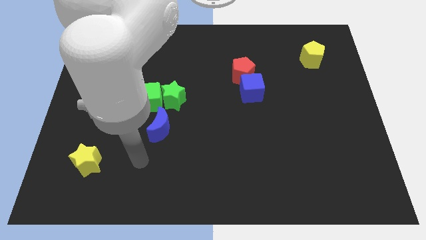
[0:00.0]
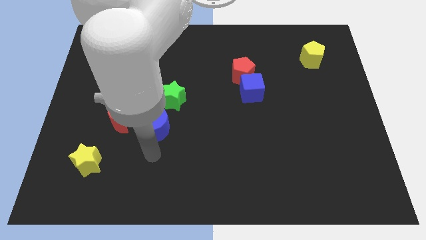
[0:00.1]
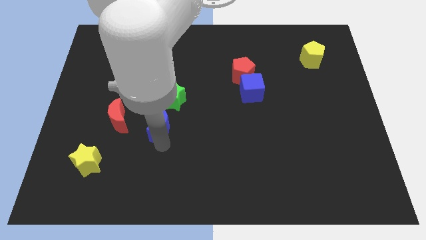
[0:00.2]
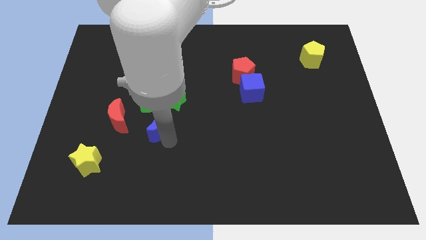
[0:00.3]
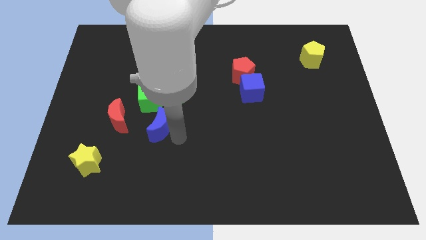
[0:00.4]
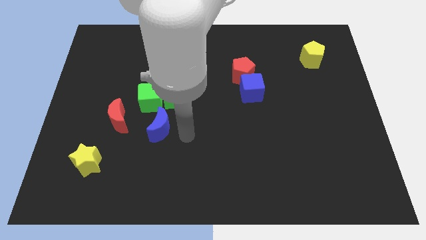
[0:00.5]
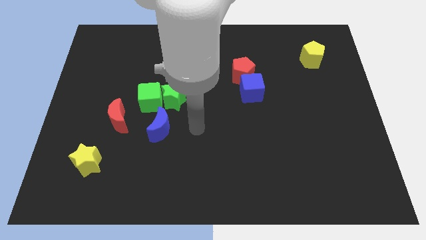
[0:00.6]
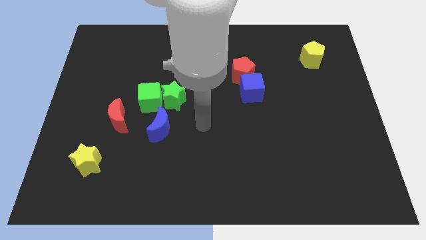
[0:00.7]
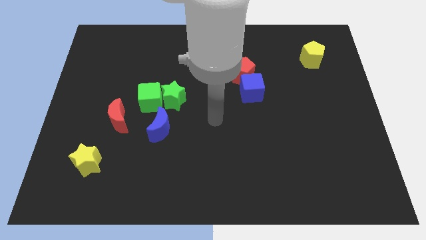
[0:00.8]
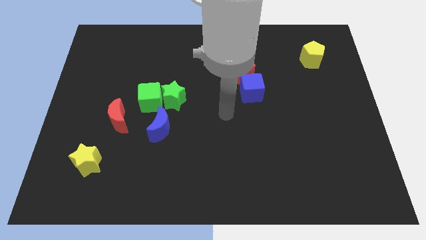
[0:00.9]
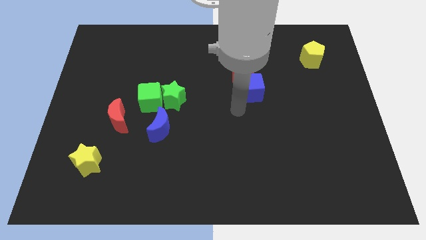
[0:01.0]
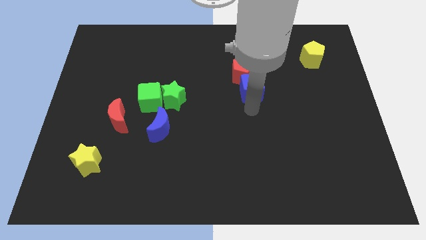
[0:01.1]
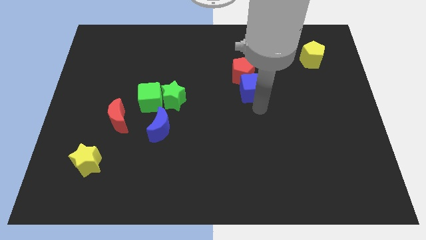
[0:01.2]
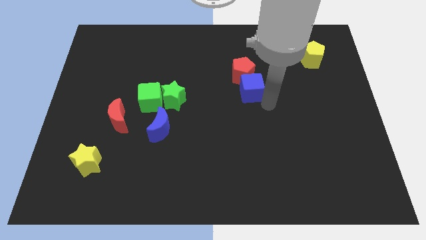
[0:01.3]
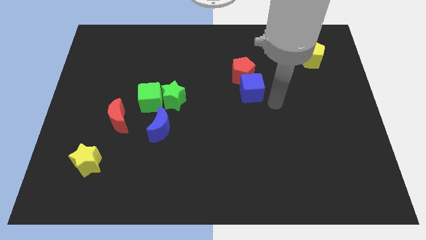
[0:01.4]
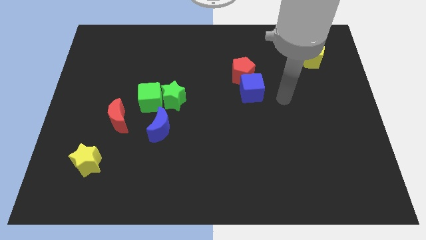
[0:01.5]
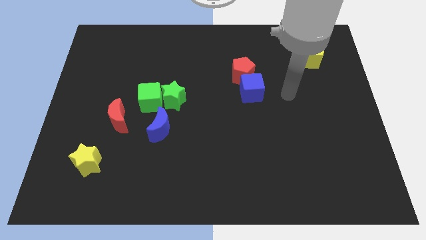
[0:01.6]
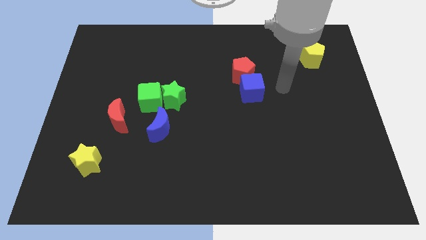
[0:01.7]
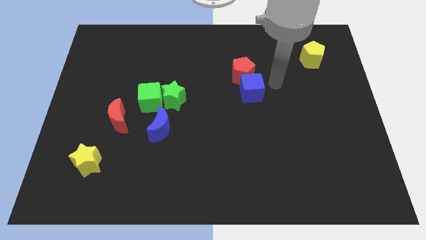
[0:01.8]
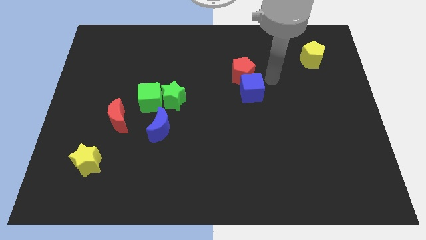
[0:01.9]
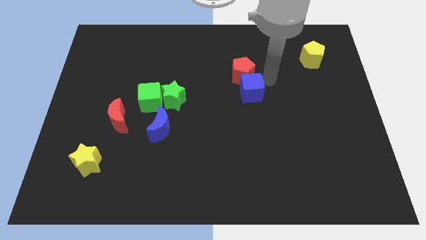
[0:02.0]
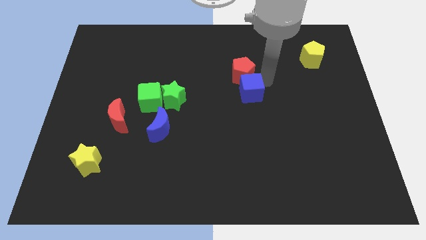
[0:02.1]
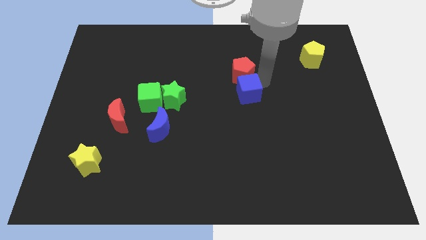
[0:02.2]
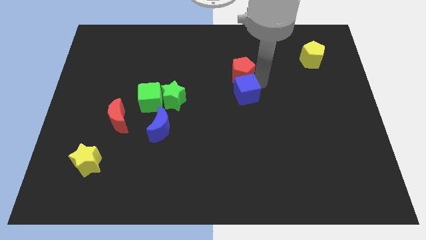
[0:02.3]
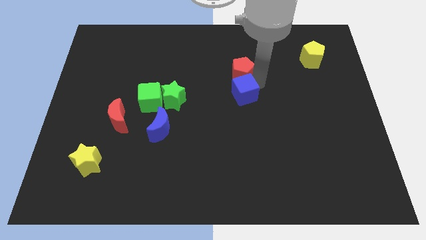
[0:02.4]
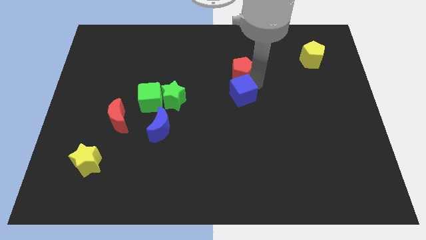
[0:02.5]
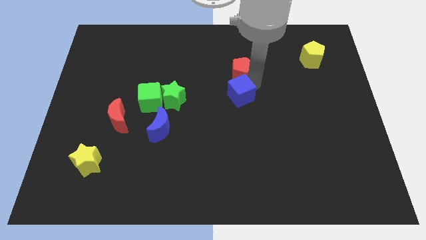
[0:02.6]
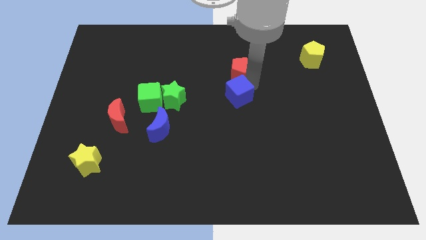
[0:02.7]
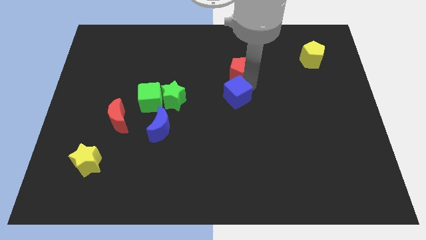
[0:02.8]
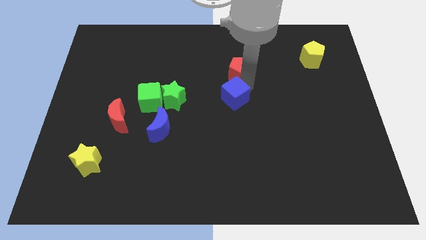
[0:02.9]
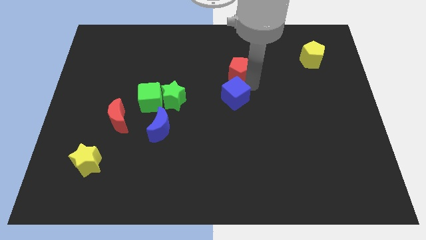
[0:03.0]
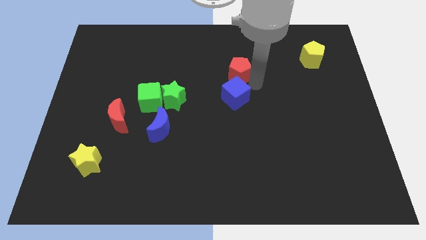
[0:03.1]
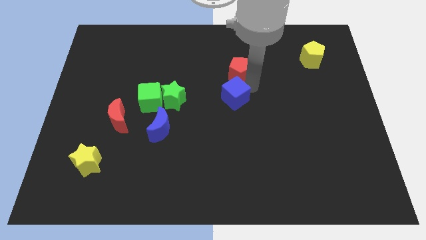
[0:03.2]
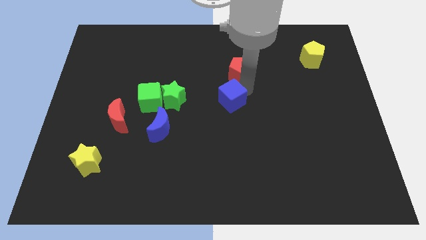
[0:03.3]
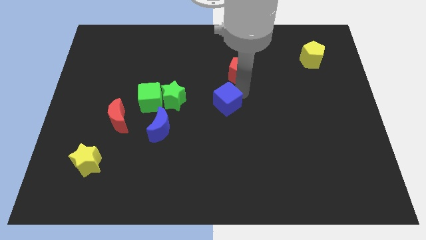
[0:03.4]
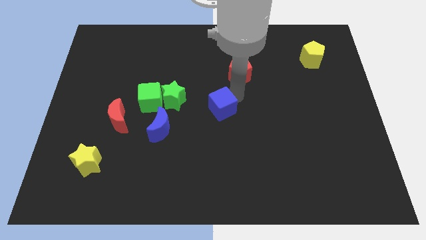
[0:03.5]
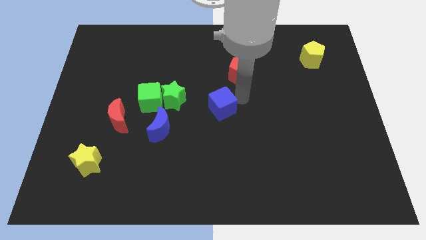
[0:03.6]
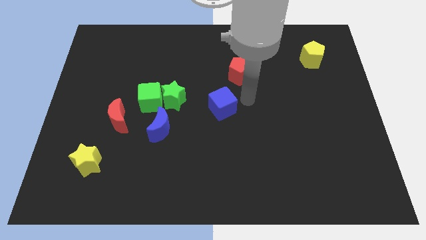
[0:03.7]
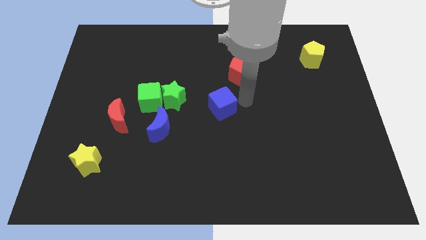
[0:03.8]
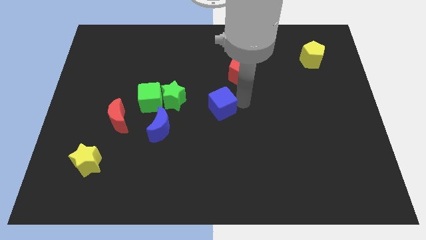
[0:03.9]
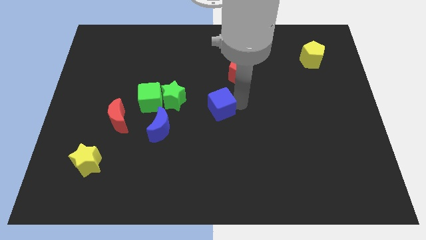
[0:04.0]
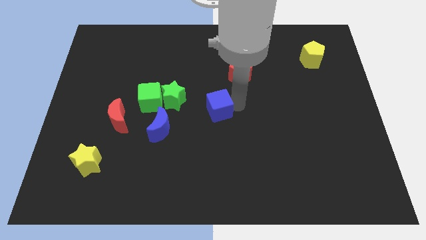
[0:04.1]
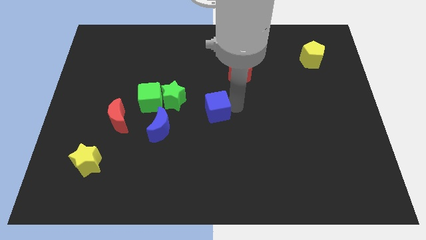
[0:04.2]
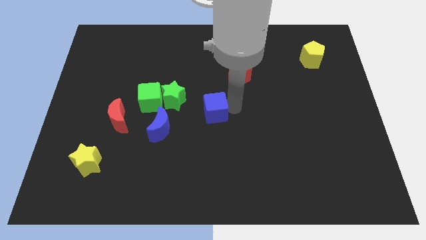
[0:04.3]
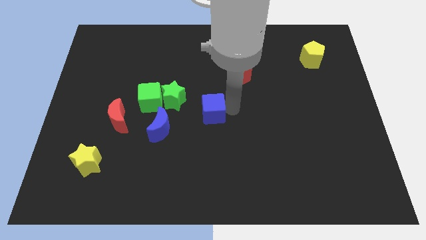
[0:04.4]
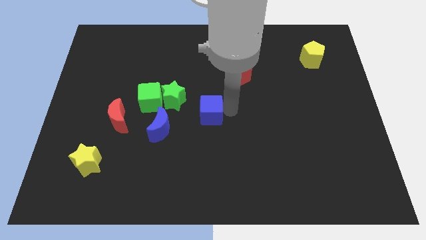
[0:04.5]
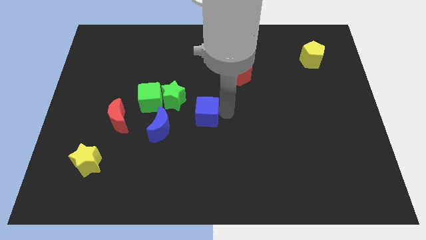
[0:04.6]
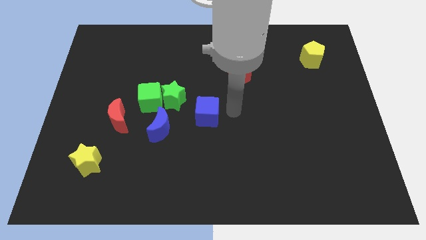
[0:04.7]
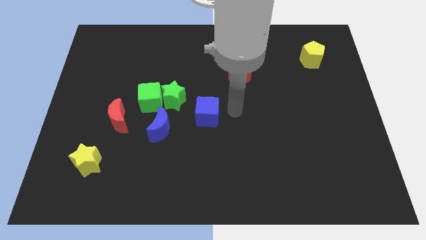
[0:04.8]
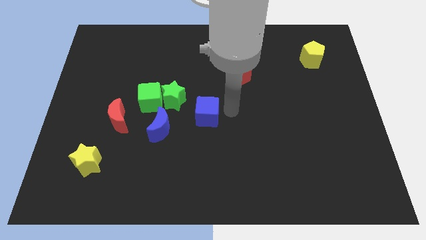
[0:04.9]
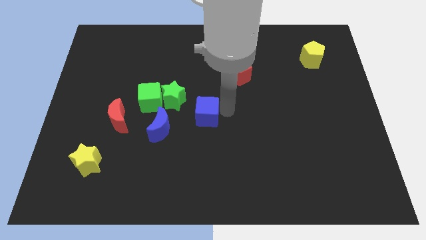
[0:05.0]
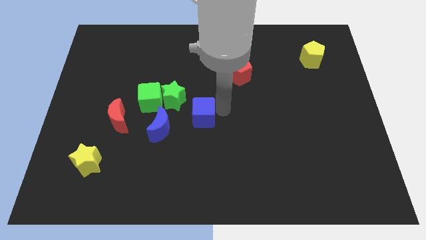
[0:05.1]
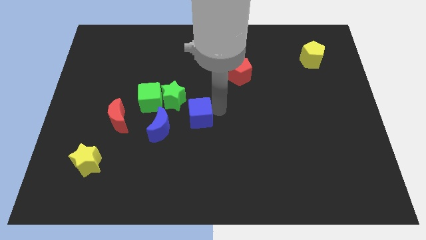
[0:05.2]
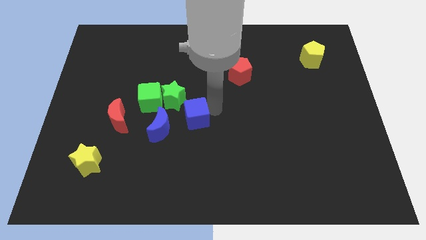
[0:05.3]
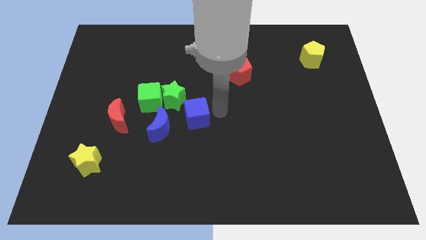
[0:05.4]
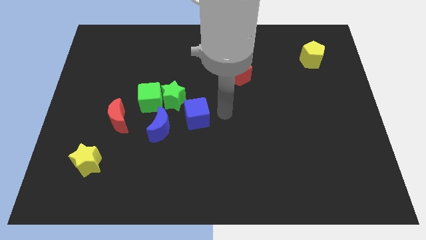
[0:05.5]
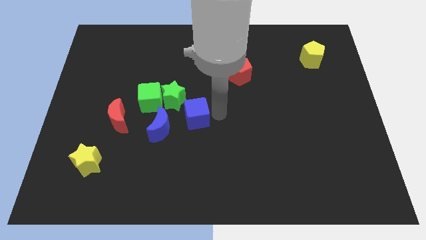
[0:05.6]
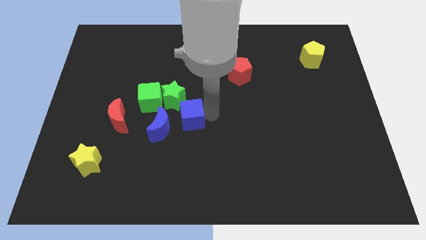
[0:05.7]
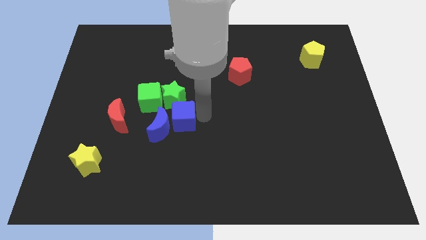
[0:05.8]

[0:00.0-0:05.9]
push the blue cube right of the red moon
